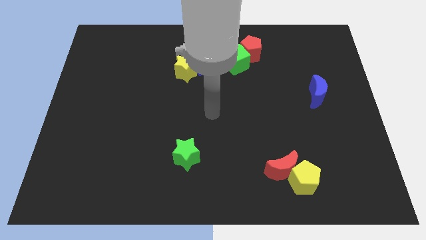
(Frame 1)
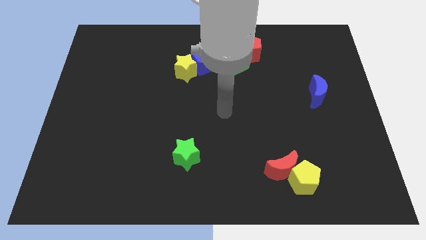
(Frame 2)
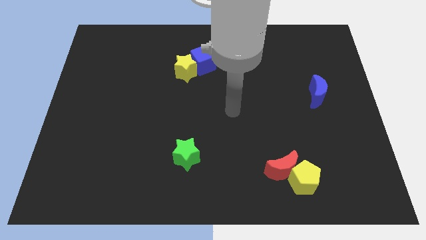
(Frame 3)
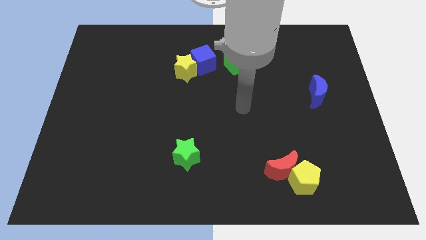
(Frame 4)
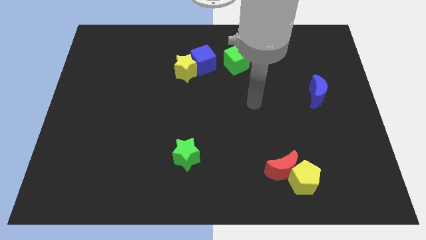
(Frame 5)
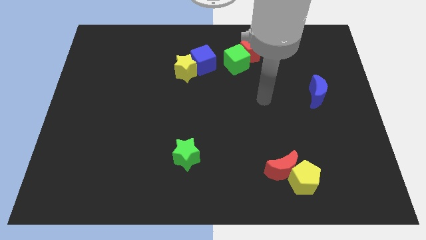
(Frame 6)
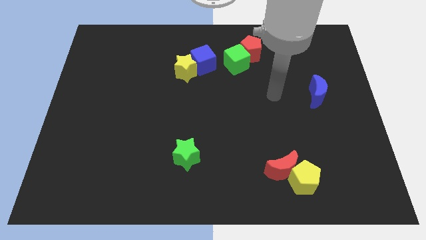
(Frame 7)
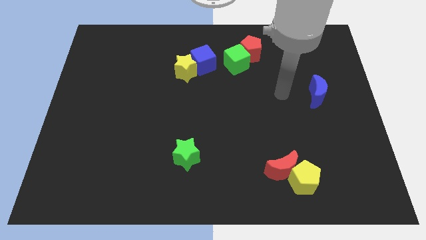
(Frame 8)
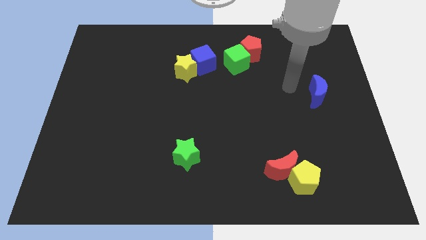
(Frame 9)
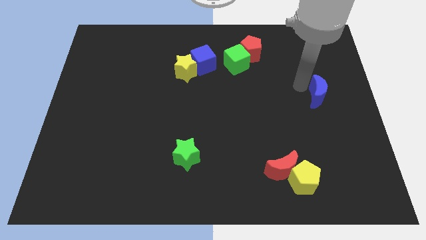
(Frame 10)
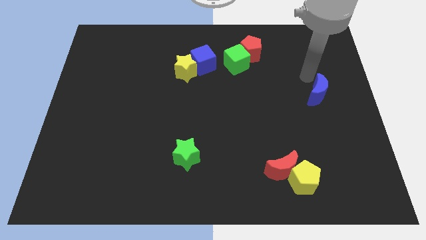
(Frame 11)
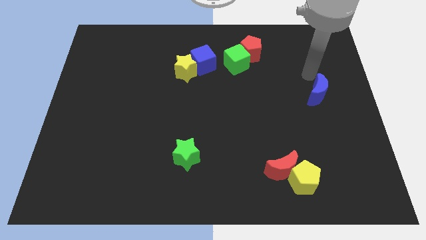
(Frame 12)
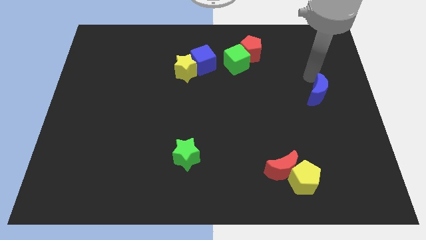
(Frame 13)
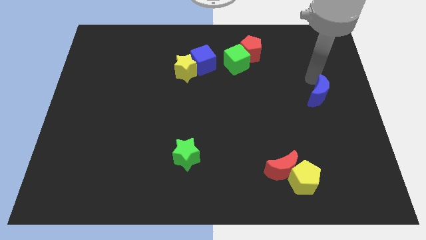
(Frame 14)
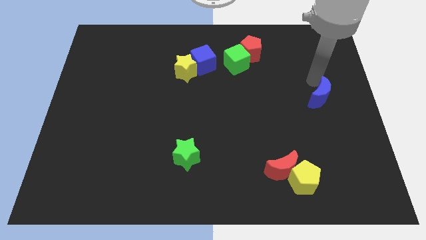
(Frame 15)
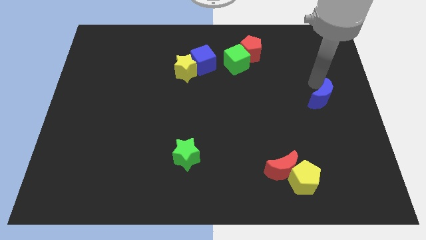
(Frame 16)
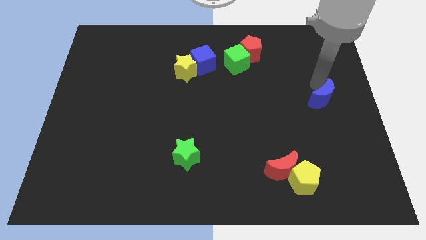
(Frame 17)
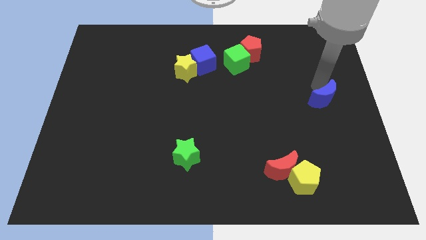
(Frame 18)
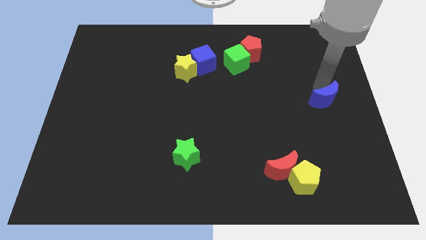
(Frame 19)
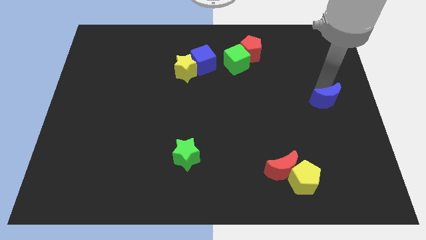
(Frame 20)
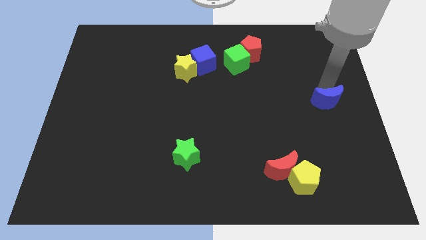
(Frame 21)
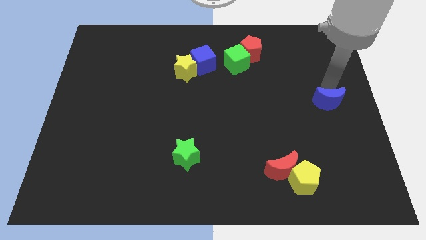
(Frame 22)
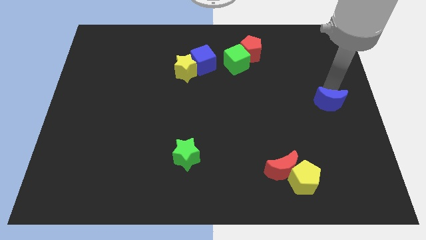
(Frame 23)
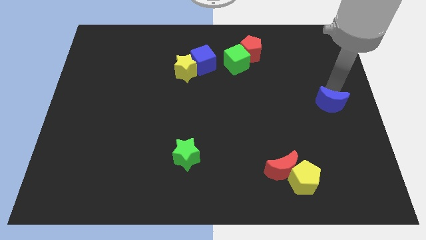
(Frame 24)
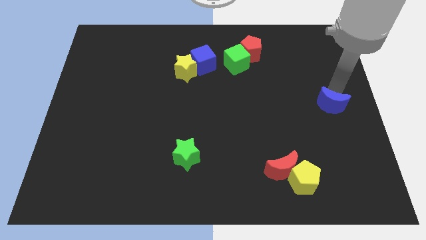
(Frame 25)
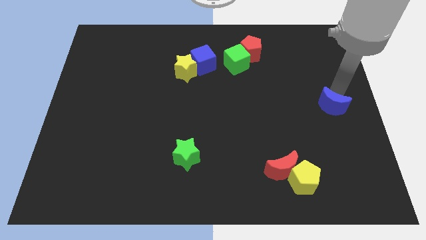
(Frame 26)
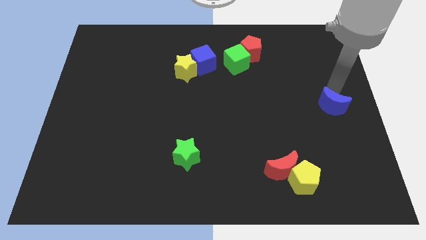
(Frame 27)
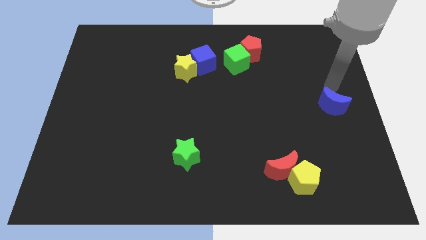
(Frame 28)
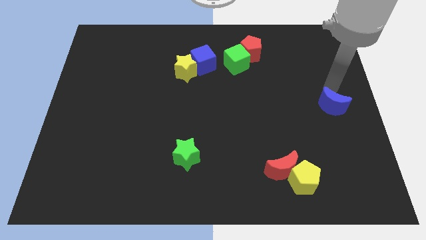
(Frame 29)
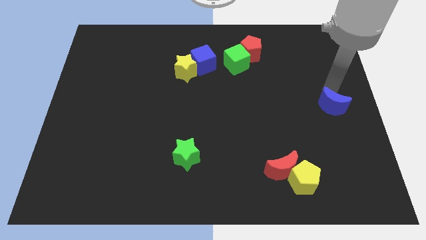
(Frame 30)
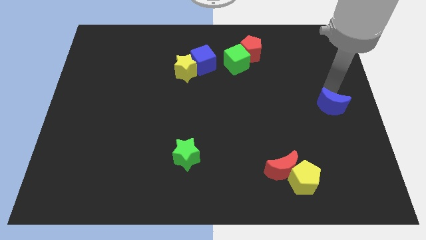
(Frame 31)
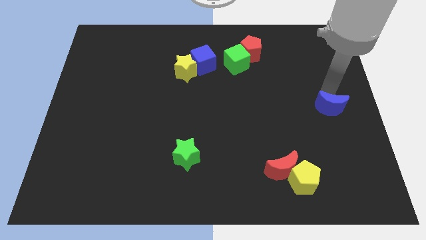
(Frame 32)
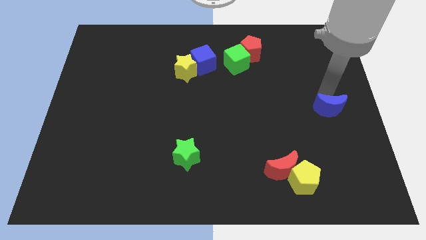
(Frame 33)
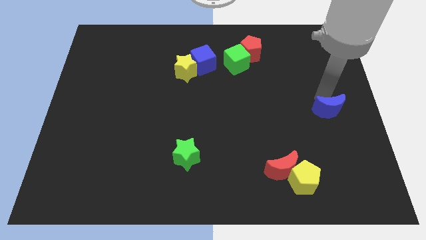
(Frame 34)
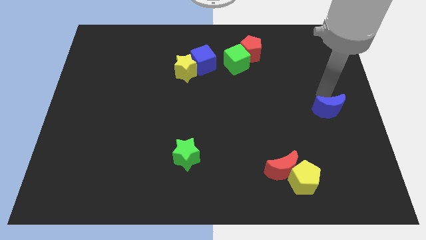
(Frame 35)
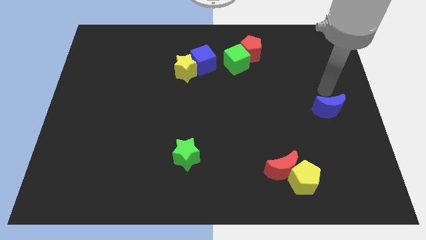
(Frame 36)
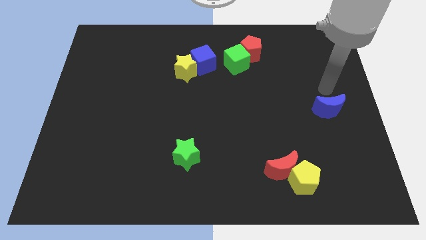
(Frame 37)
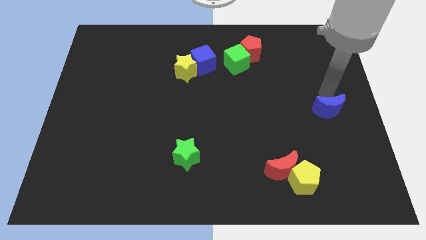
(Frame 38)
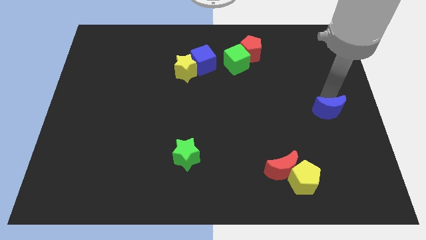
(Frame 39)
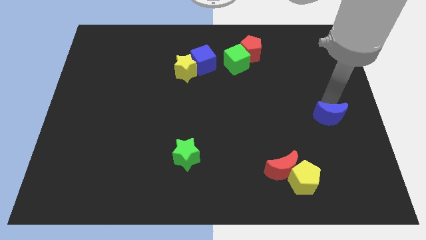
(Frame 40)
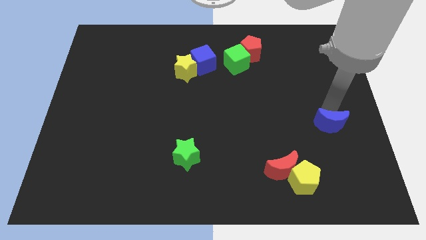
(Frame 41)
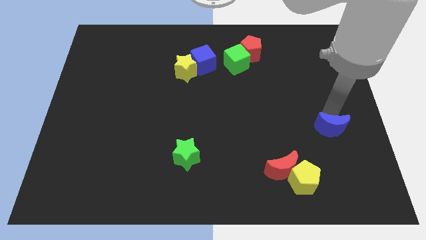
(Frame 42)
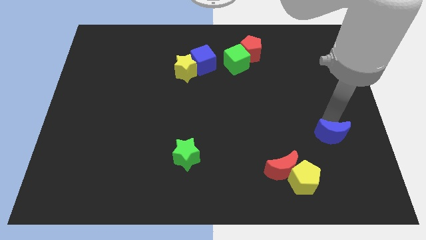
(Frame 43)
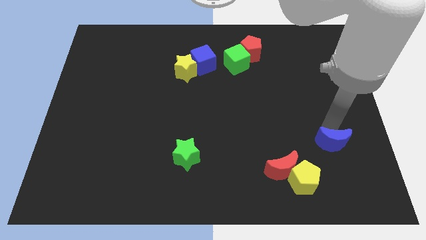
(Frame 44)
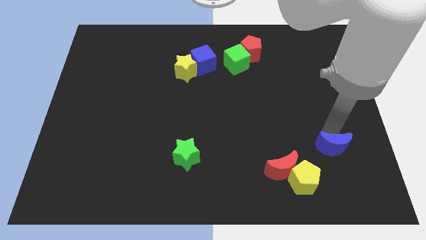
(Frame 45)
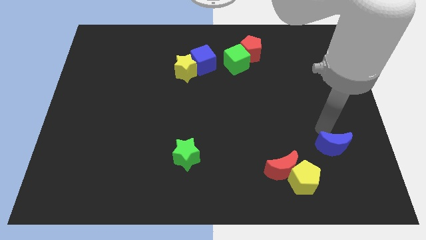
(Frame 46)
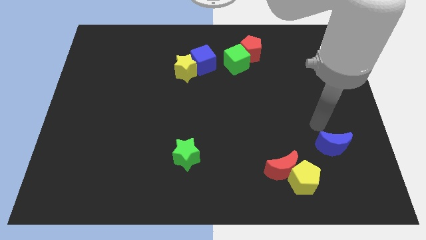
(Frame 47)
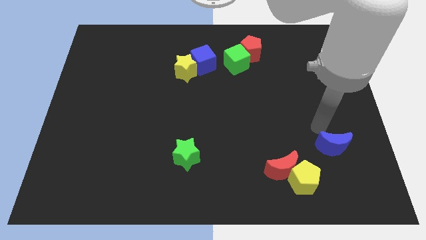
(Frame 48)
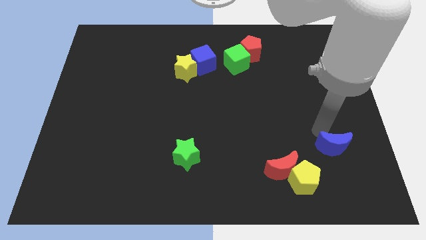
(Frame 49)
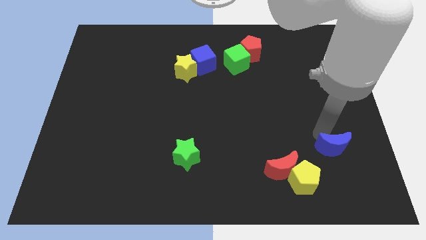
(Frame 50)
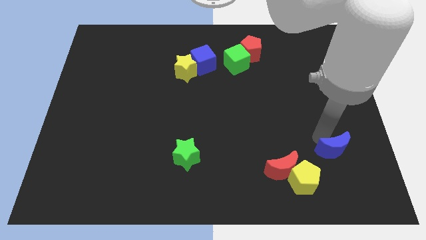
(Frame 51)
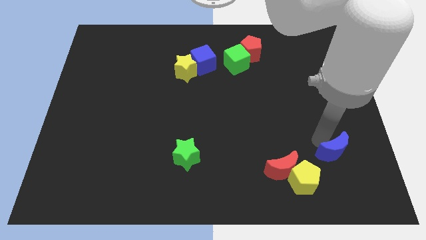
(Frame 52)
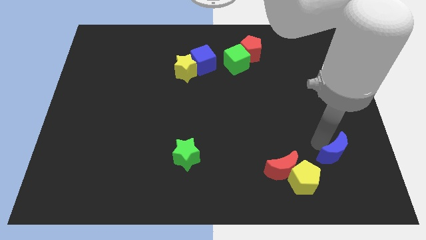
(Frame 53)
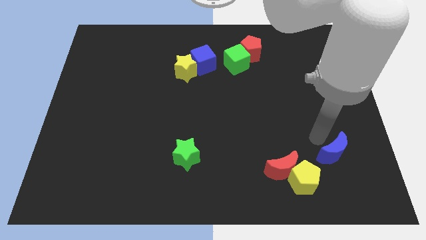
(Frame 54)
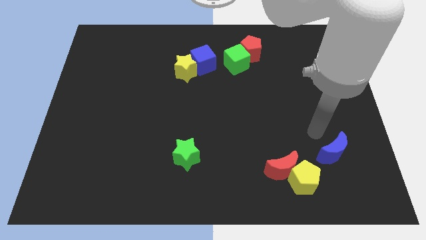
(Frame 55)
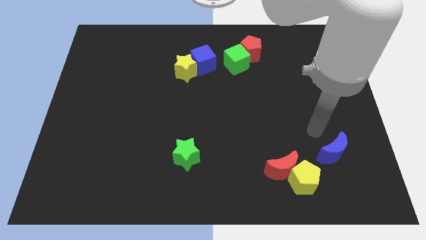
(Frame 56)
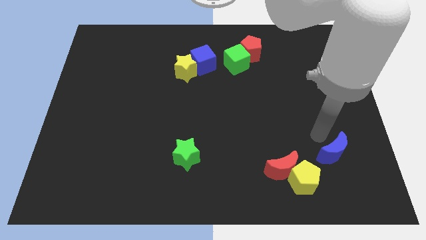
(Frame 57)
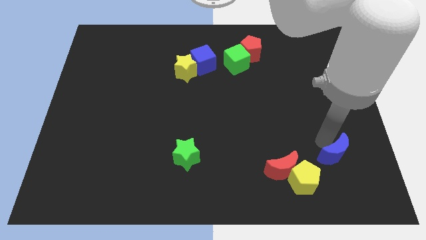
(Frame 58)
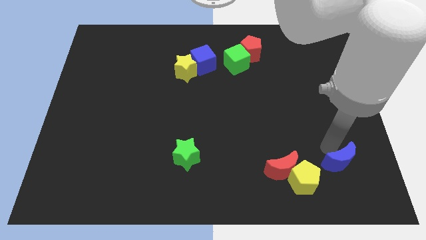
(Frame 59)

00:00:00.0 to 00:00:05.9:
put the blue moon to the right of the yellow pentagon

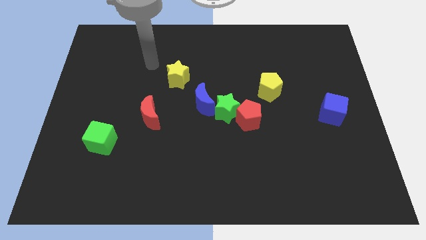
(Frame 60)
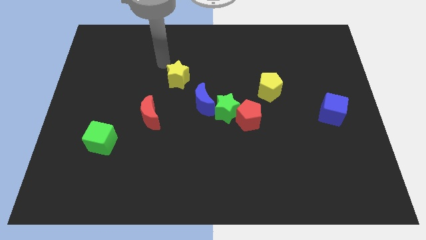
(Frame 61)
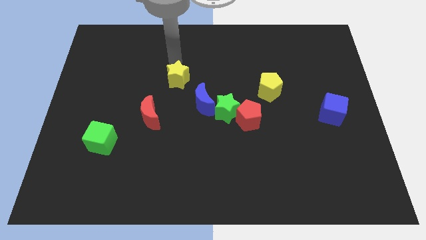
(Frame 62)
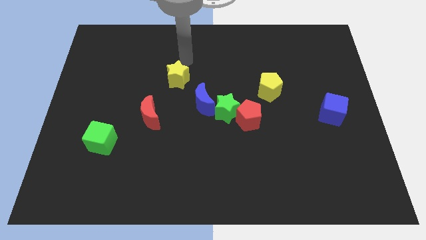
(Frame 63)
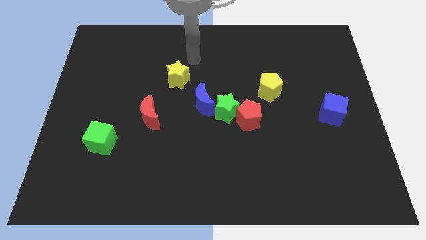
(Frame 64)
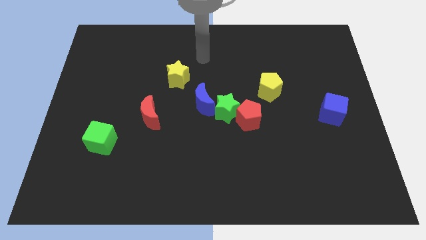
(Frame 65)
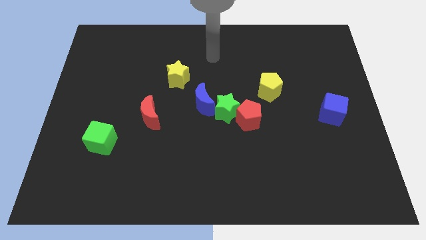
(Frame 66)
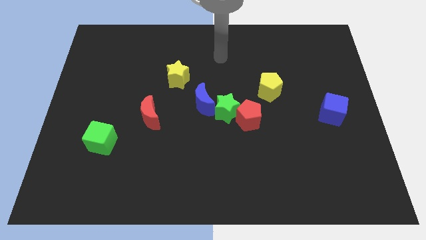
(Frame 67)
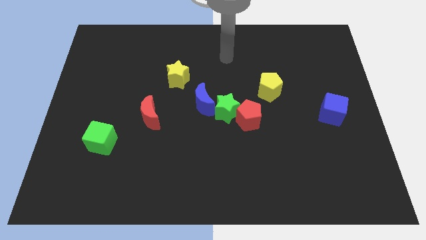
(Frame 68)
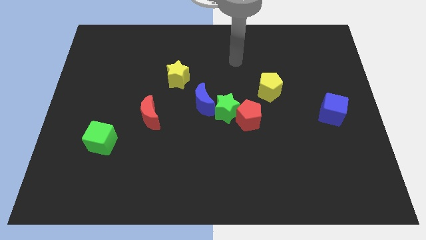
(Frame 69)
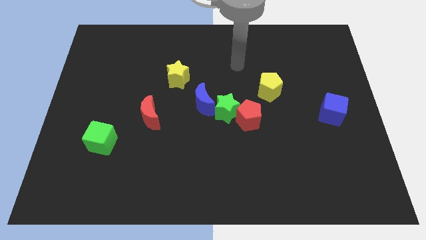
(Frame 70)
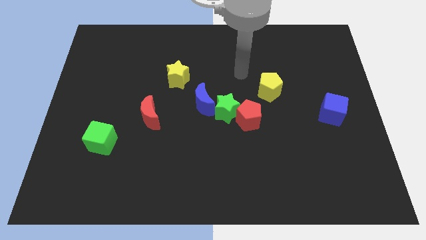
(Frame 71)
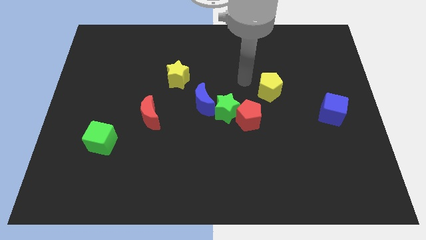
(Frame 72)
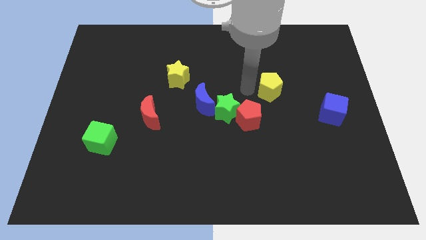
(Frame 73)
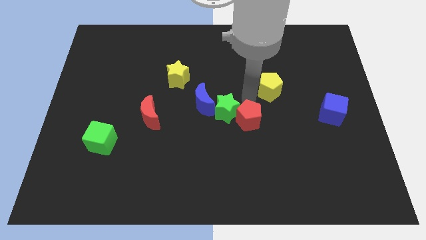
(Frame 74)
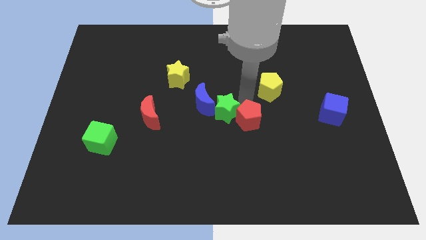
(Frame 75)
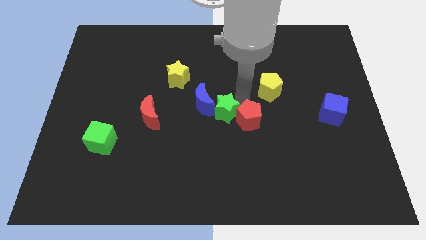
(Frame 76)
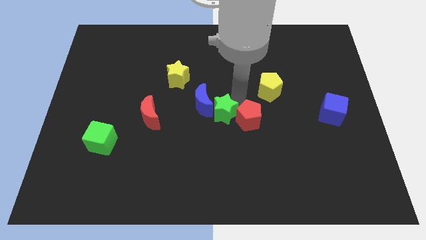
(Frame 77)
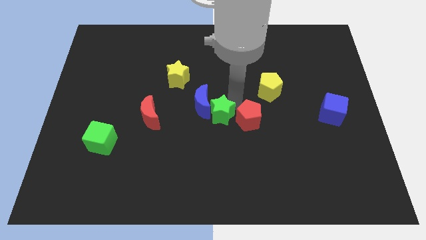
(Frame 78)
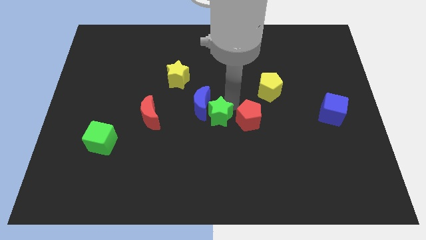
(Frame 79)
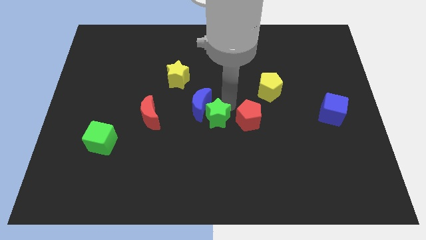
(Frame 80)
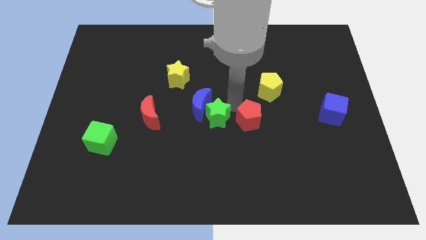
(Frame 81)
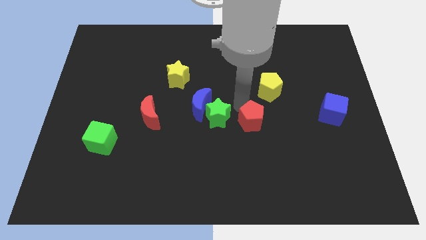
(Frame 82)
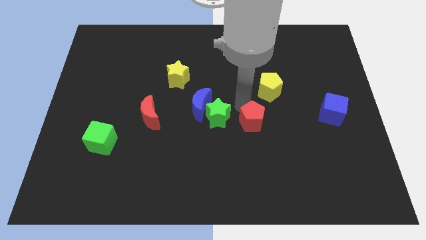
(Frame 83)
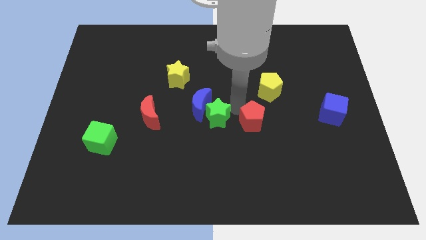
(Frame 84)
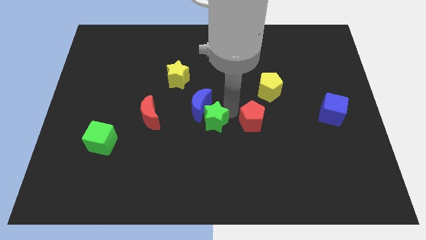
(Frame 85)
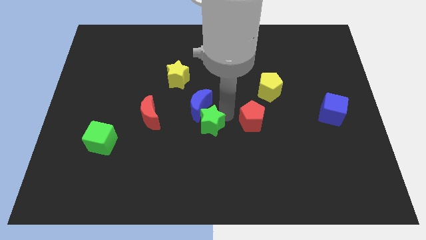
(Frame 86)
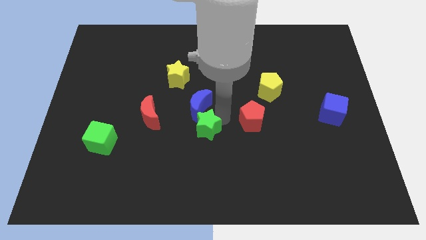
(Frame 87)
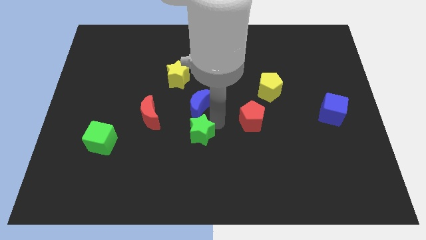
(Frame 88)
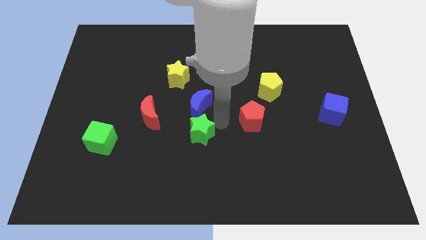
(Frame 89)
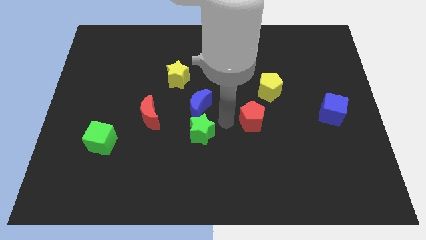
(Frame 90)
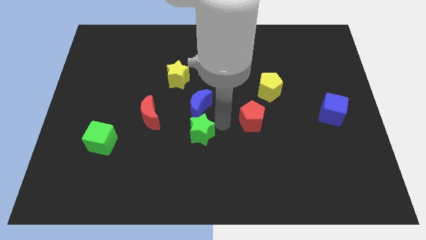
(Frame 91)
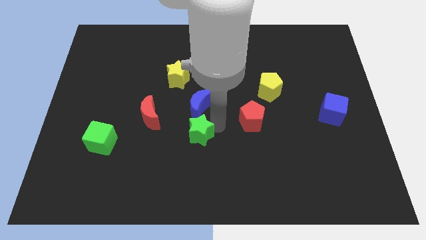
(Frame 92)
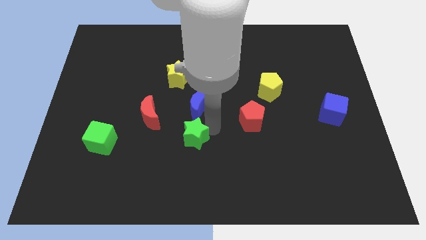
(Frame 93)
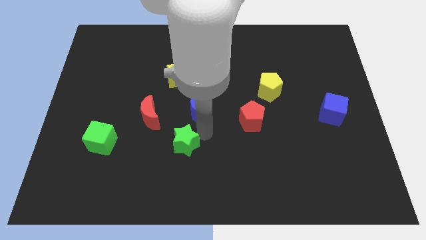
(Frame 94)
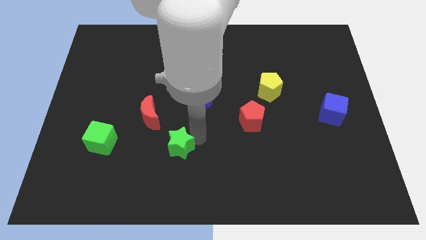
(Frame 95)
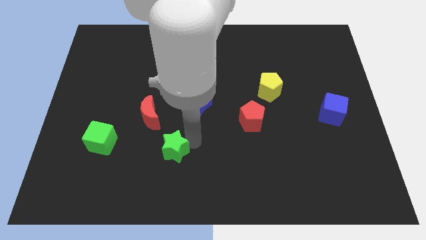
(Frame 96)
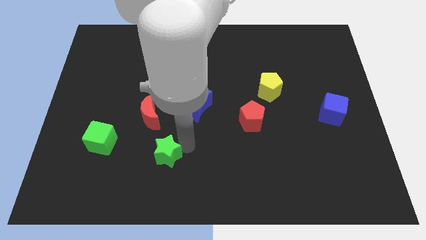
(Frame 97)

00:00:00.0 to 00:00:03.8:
move the green star to the bottom side of the red moon
